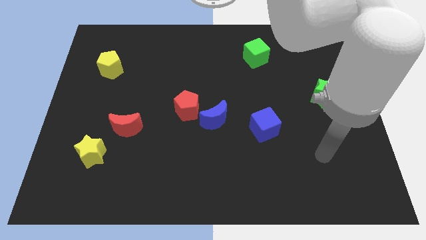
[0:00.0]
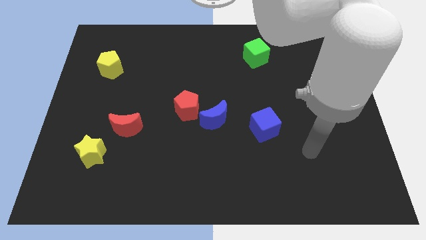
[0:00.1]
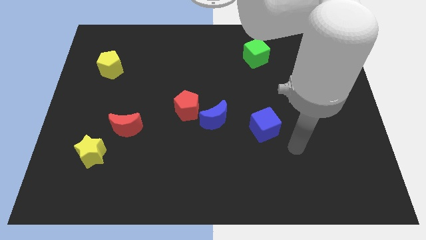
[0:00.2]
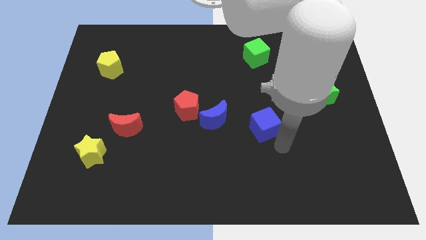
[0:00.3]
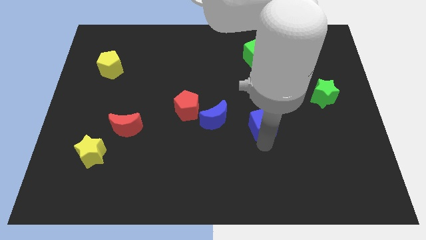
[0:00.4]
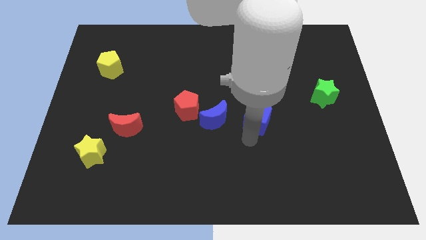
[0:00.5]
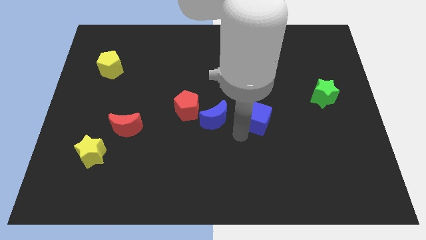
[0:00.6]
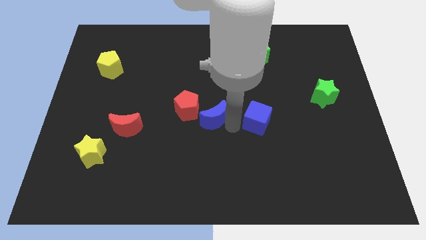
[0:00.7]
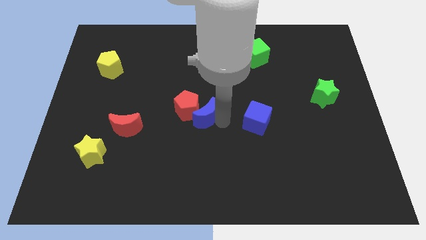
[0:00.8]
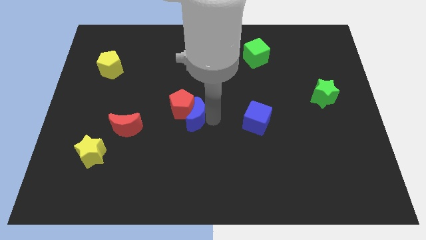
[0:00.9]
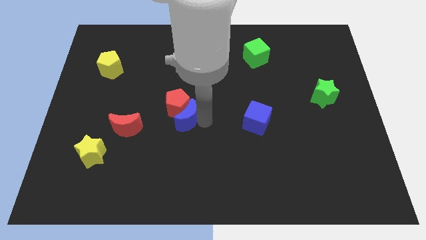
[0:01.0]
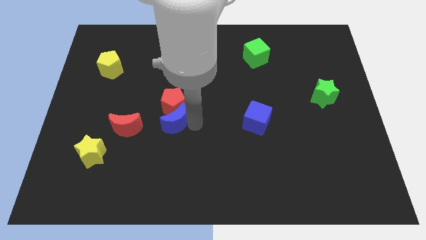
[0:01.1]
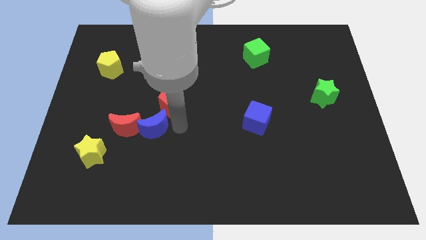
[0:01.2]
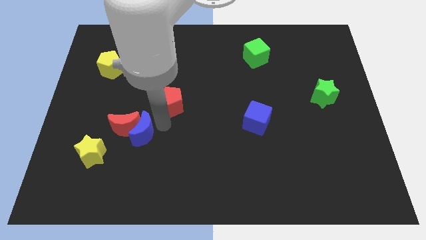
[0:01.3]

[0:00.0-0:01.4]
separate the red pentagon from the blue moon

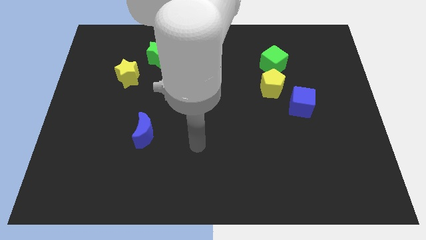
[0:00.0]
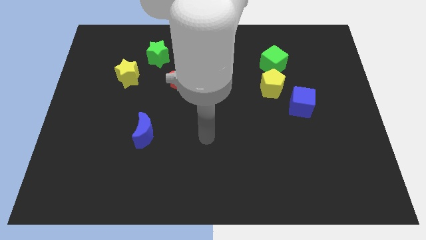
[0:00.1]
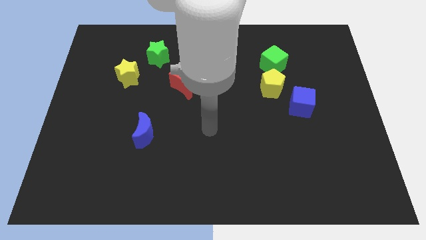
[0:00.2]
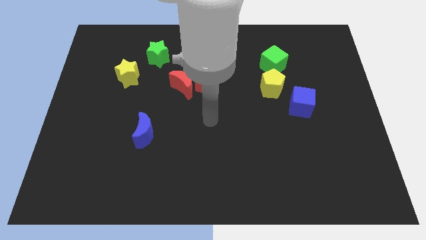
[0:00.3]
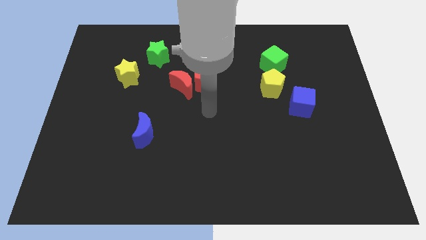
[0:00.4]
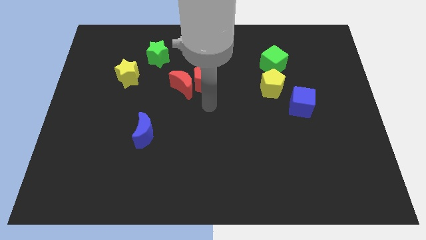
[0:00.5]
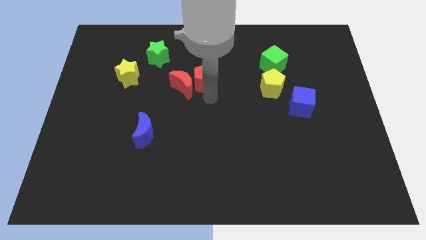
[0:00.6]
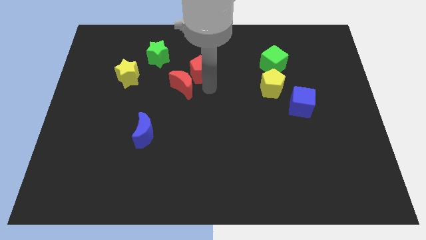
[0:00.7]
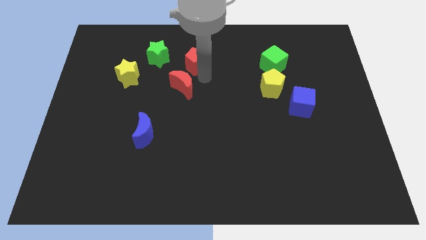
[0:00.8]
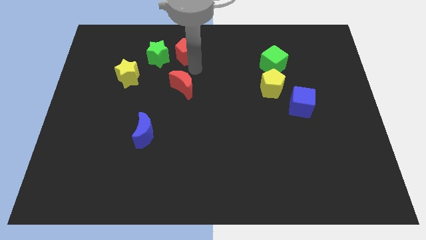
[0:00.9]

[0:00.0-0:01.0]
pull the red moon apart from the red pentagon

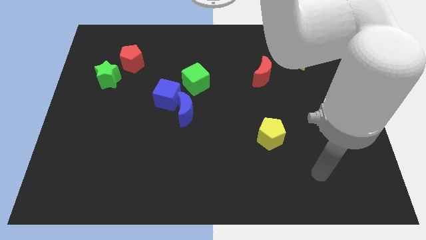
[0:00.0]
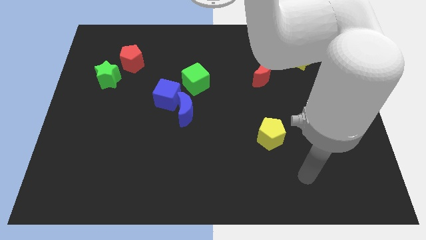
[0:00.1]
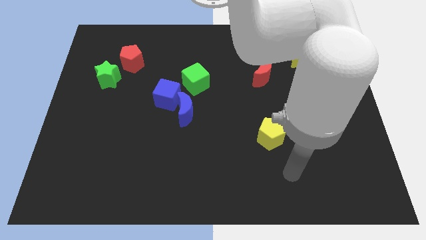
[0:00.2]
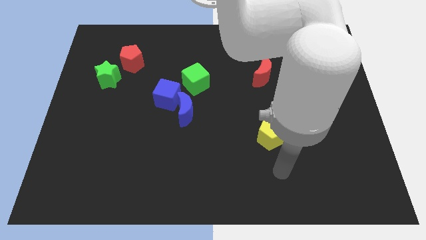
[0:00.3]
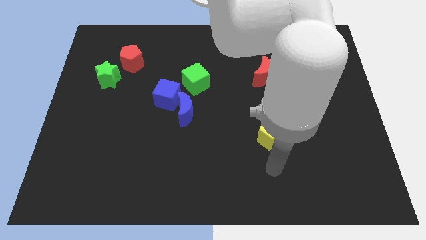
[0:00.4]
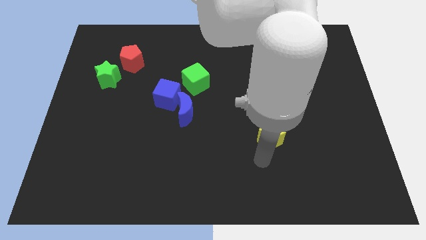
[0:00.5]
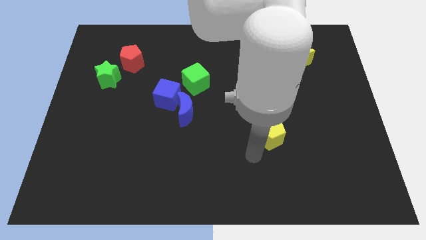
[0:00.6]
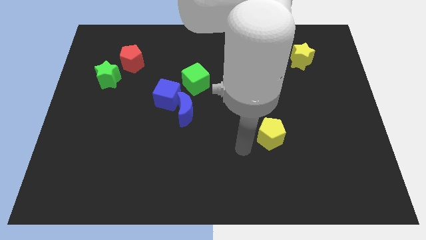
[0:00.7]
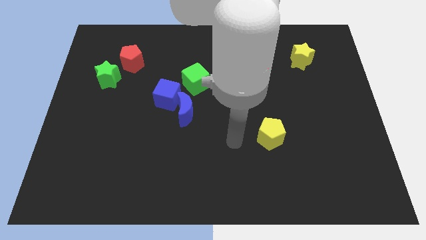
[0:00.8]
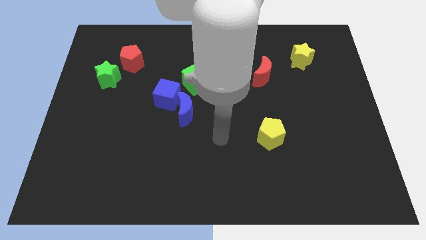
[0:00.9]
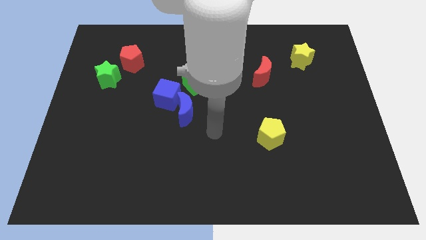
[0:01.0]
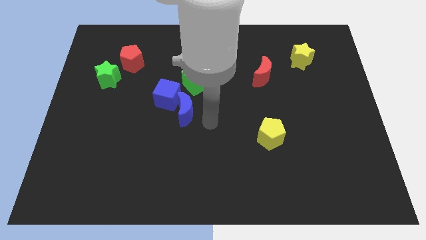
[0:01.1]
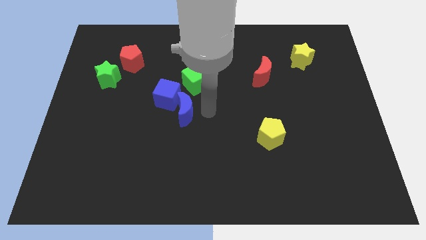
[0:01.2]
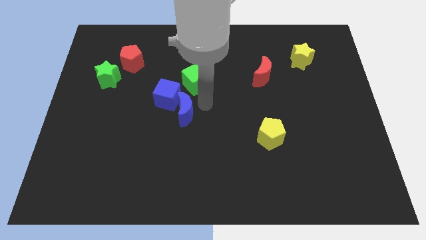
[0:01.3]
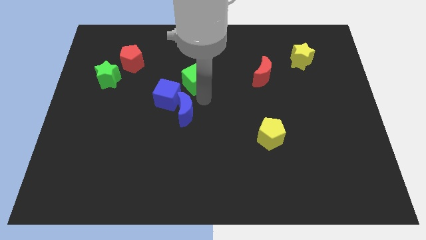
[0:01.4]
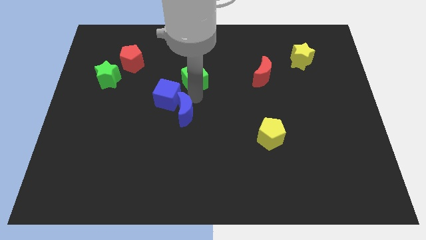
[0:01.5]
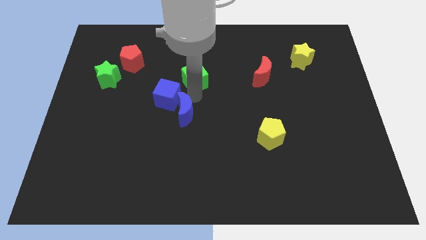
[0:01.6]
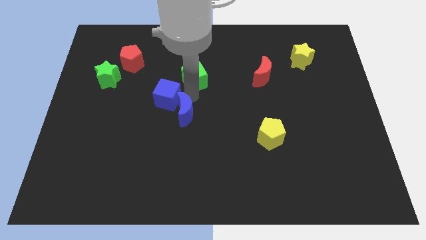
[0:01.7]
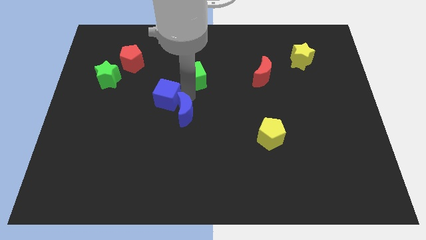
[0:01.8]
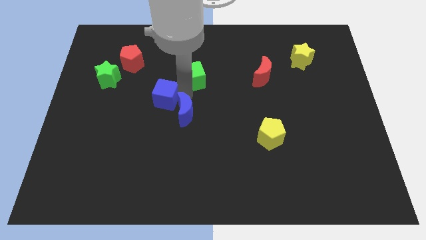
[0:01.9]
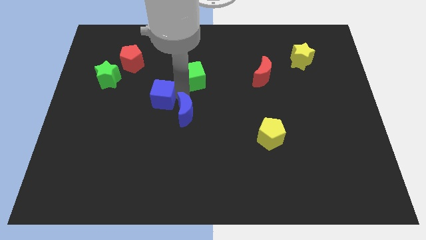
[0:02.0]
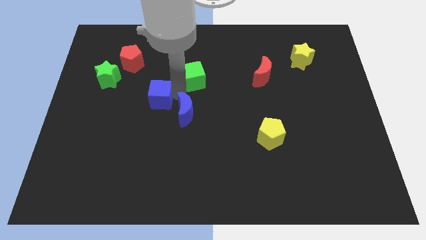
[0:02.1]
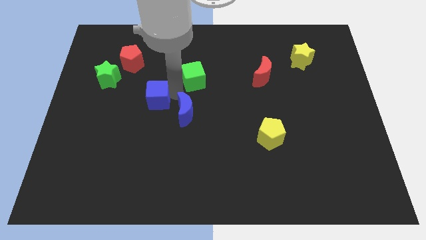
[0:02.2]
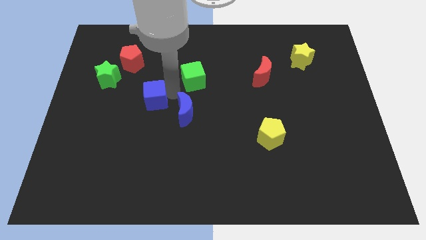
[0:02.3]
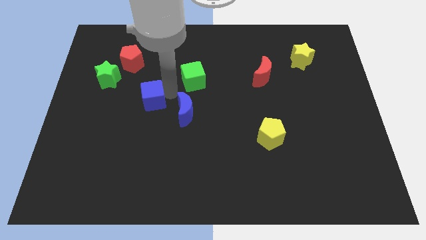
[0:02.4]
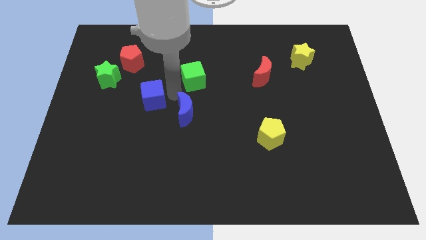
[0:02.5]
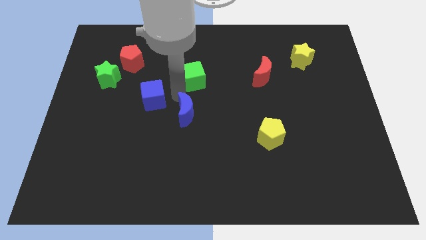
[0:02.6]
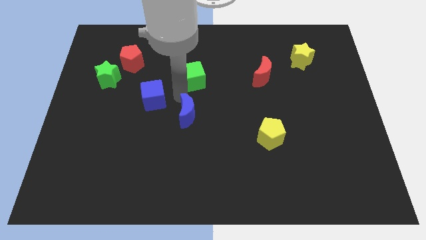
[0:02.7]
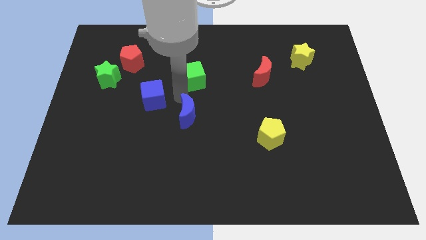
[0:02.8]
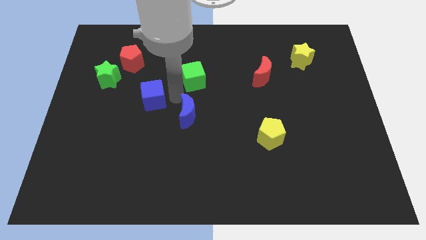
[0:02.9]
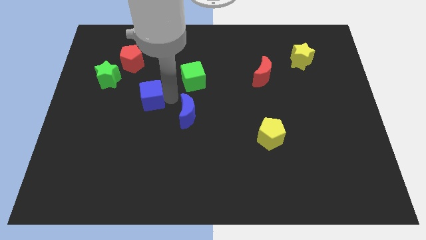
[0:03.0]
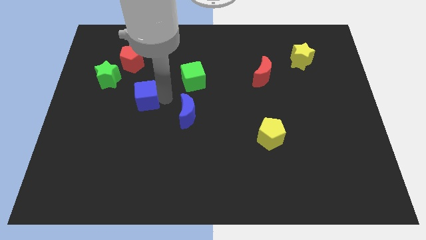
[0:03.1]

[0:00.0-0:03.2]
move the blue cube away from the blue moon and green cube

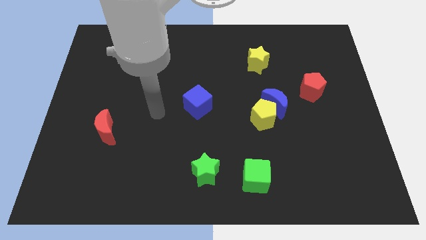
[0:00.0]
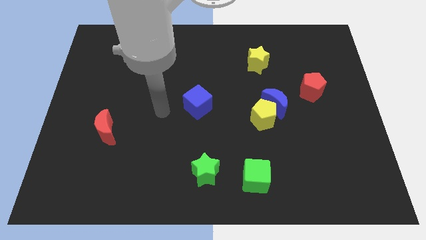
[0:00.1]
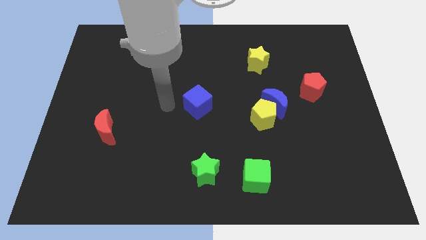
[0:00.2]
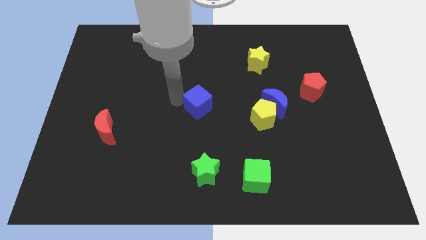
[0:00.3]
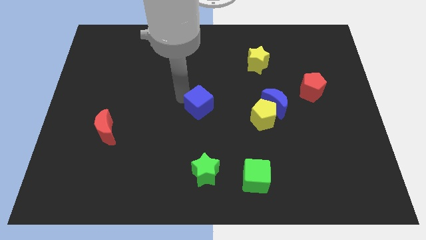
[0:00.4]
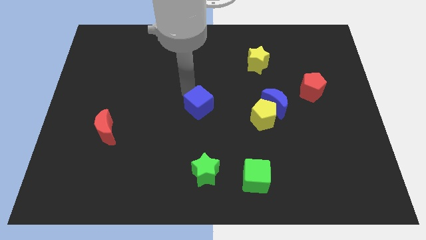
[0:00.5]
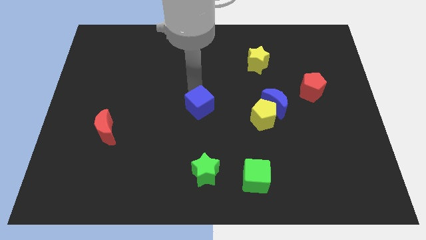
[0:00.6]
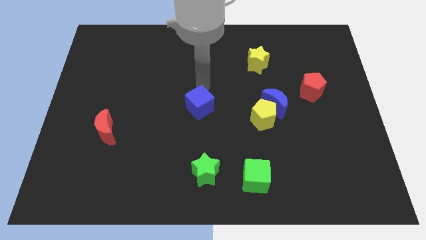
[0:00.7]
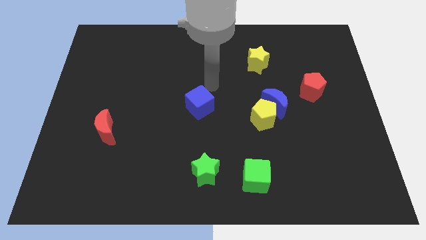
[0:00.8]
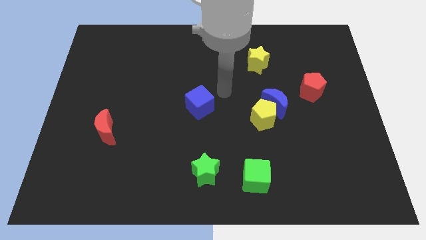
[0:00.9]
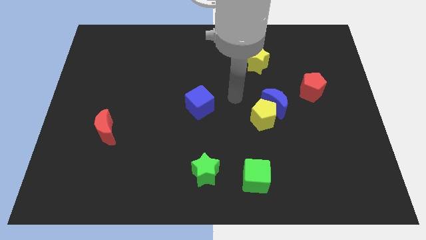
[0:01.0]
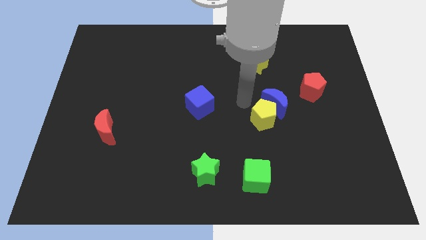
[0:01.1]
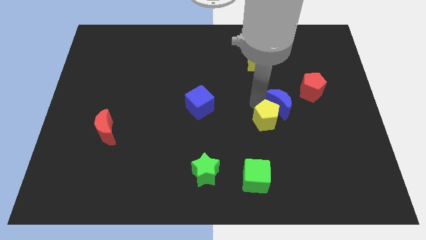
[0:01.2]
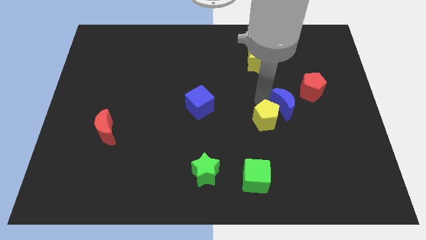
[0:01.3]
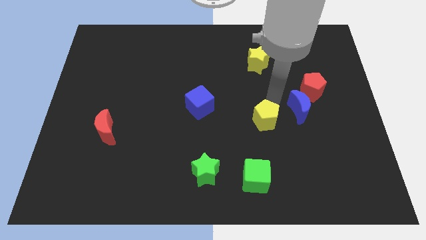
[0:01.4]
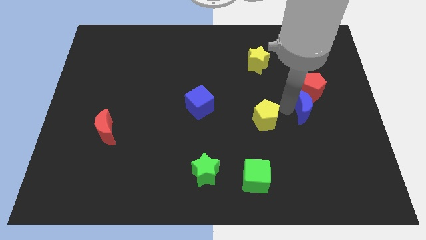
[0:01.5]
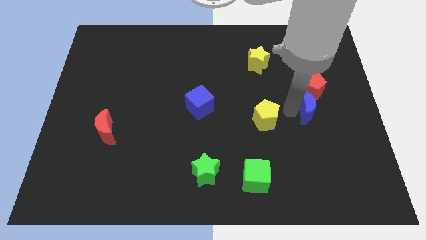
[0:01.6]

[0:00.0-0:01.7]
move the yellow pentagon away from the blue moon

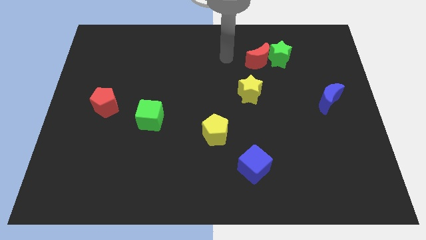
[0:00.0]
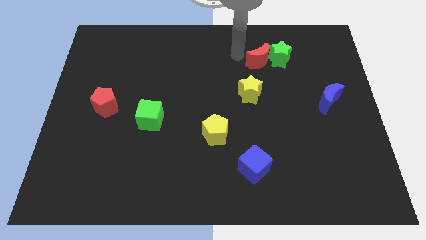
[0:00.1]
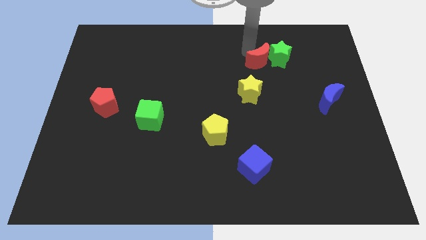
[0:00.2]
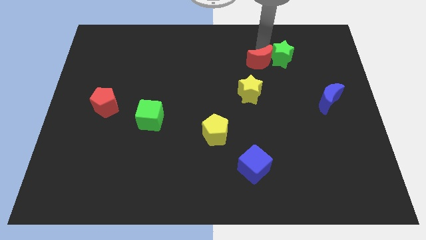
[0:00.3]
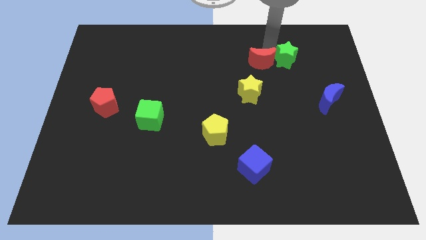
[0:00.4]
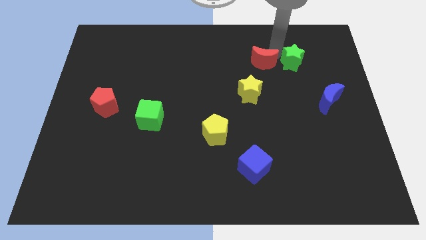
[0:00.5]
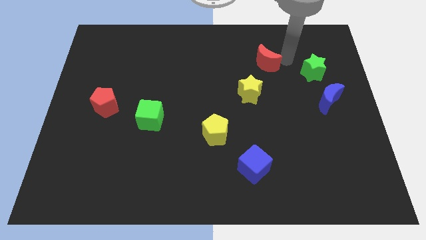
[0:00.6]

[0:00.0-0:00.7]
pull the red moon apart from the green star

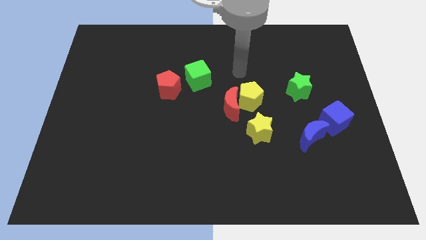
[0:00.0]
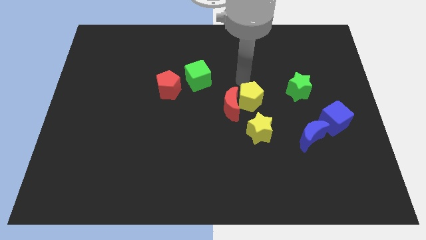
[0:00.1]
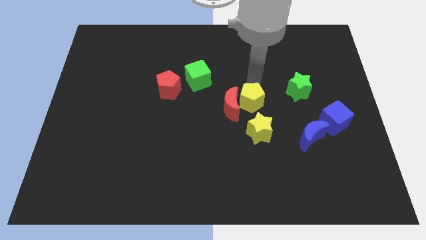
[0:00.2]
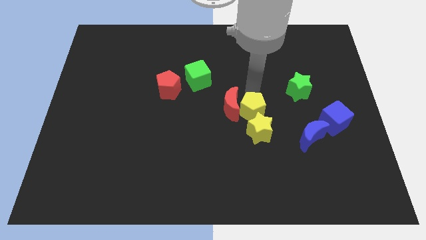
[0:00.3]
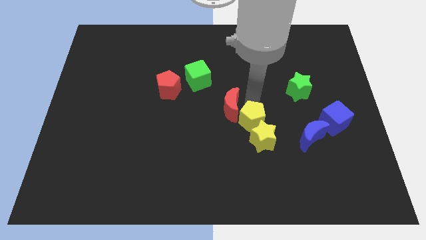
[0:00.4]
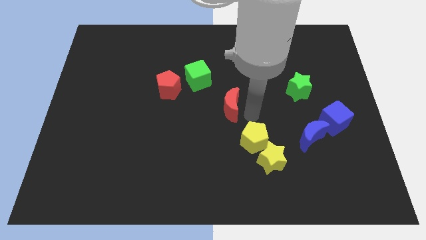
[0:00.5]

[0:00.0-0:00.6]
move the red moon away from the yellow pentagon and yellow star

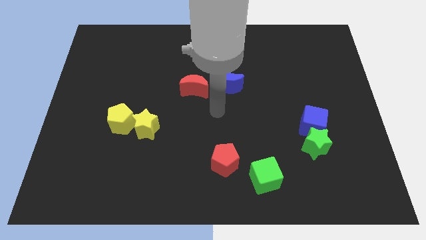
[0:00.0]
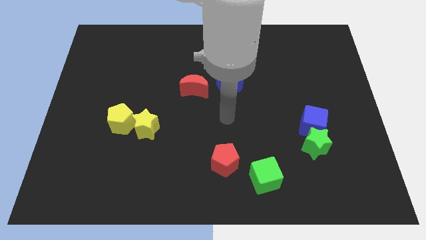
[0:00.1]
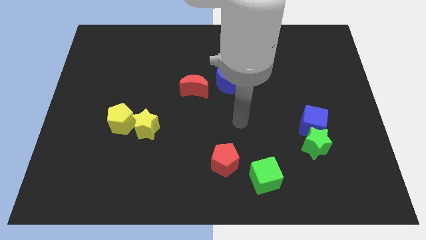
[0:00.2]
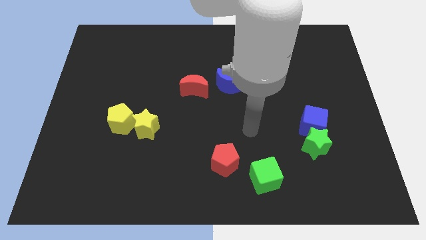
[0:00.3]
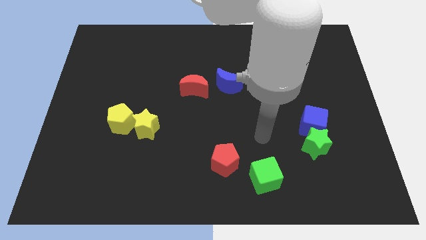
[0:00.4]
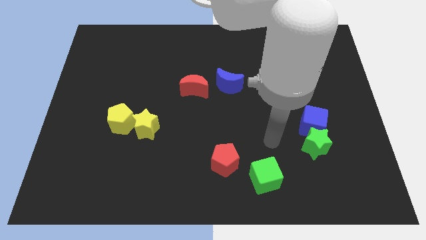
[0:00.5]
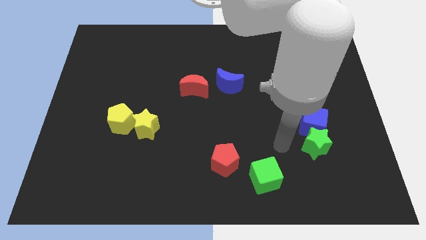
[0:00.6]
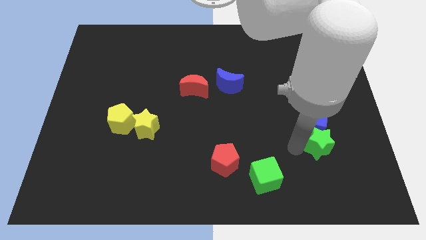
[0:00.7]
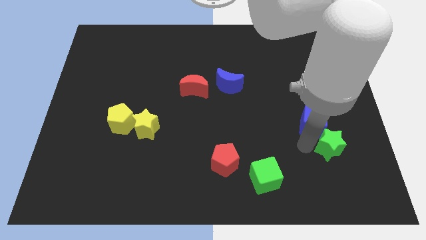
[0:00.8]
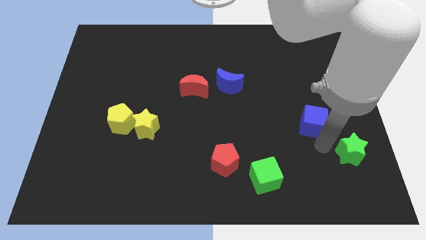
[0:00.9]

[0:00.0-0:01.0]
pull the blue cube apart from the green star
